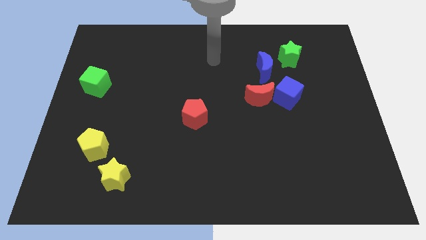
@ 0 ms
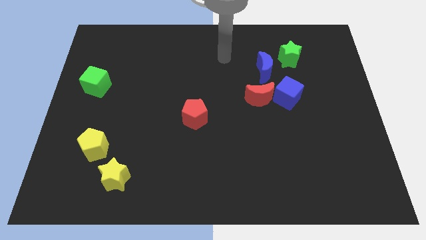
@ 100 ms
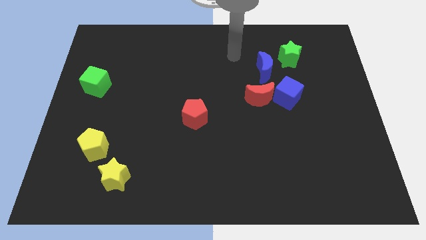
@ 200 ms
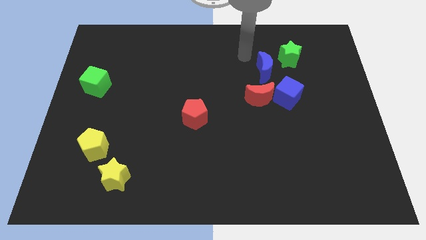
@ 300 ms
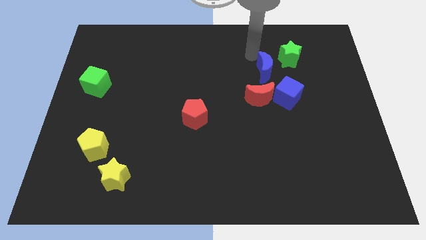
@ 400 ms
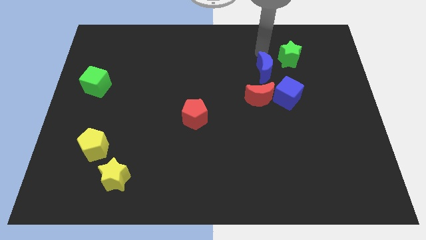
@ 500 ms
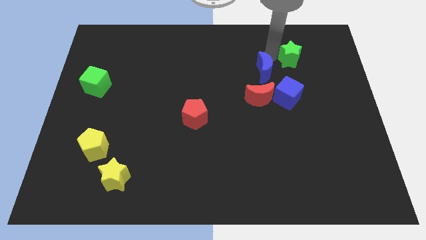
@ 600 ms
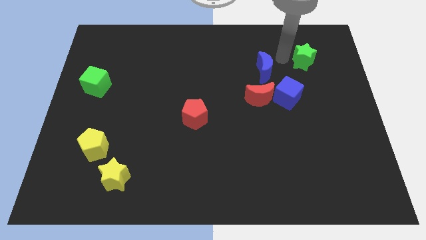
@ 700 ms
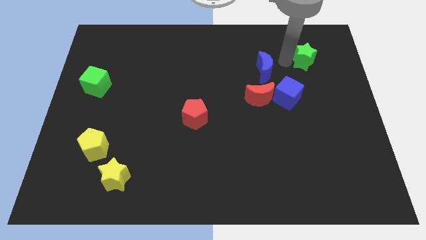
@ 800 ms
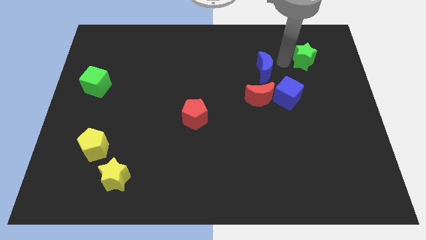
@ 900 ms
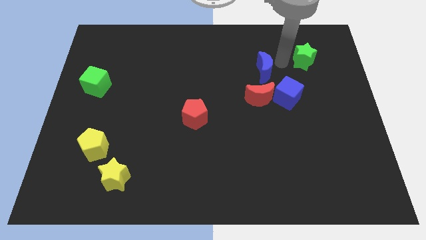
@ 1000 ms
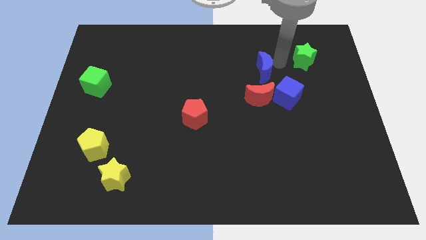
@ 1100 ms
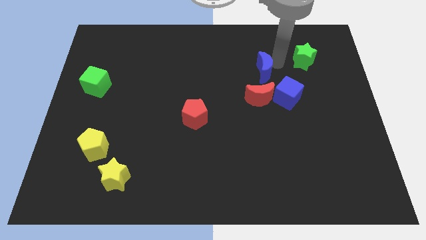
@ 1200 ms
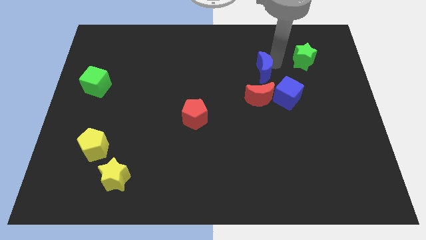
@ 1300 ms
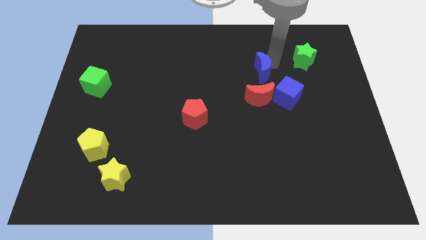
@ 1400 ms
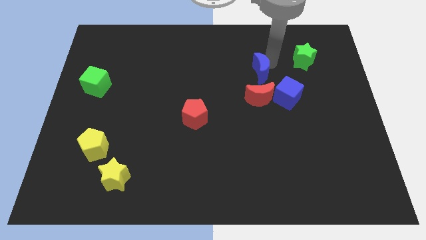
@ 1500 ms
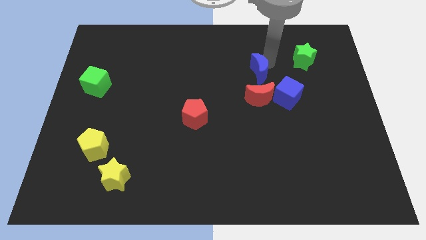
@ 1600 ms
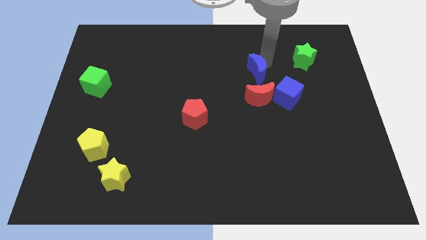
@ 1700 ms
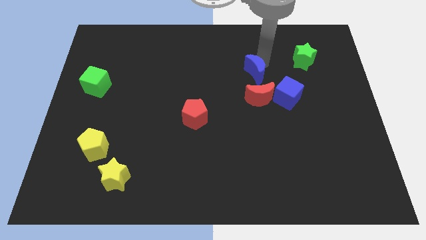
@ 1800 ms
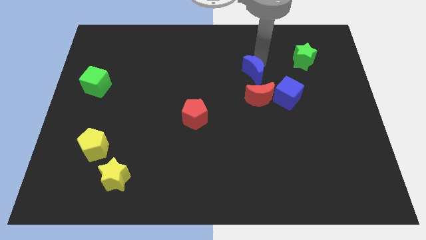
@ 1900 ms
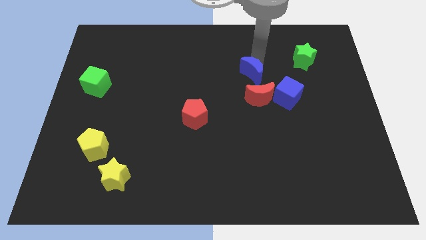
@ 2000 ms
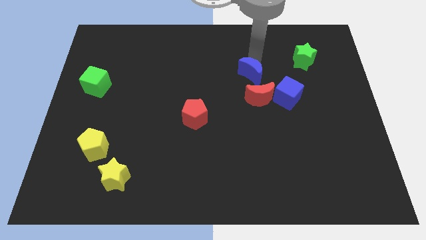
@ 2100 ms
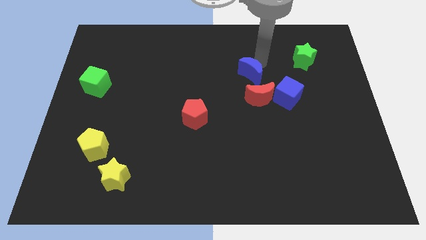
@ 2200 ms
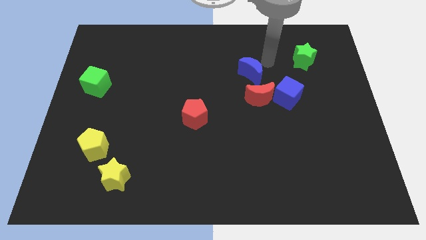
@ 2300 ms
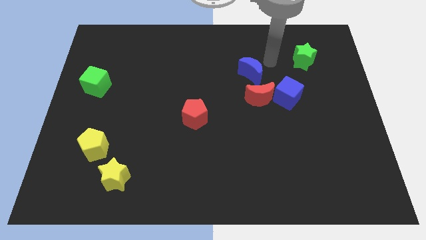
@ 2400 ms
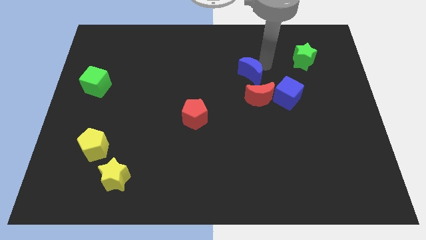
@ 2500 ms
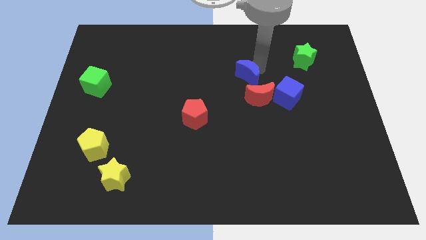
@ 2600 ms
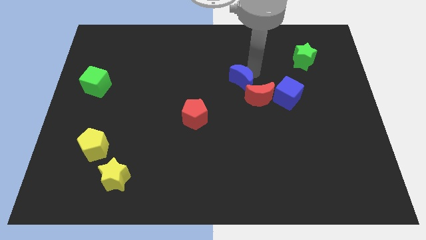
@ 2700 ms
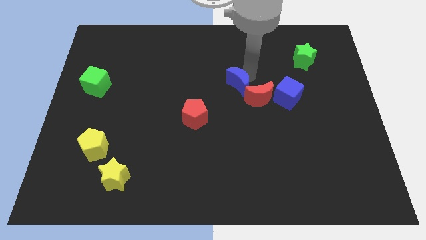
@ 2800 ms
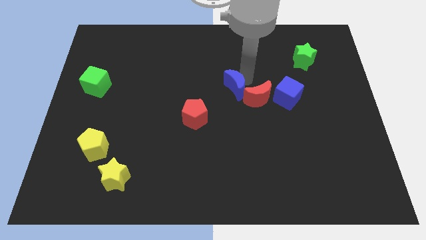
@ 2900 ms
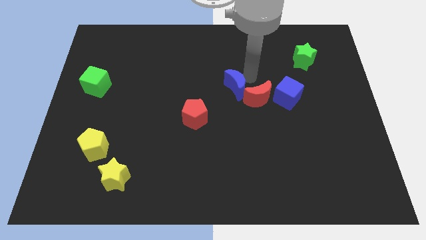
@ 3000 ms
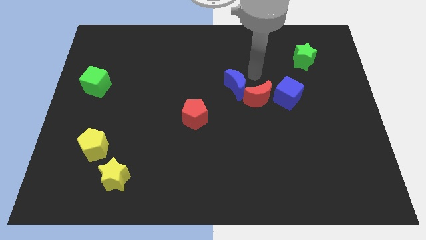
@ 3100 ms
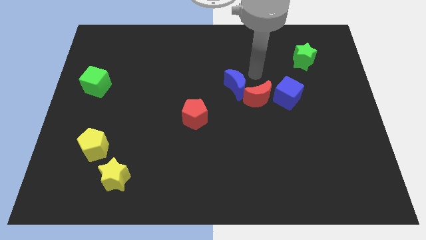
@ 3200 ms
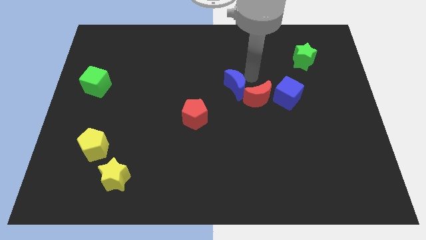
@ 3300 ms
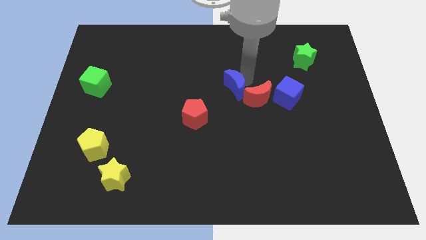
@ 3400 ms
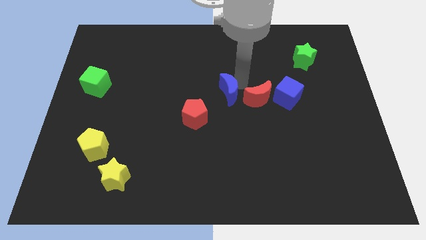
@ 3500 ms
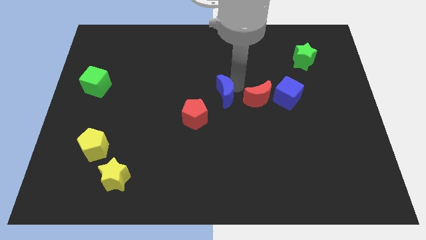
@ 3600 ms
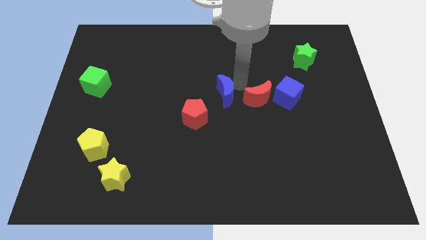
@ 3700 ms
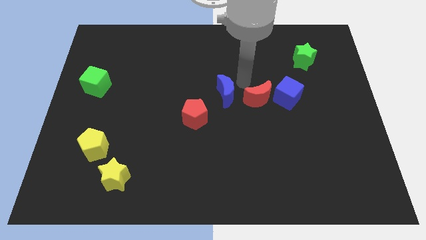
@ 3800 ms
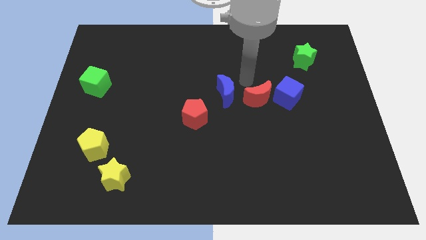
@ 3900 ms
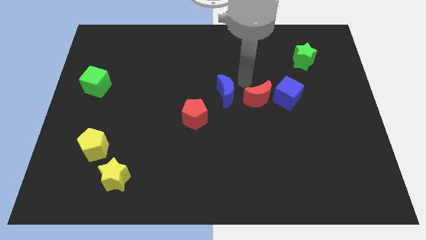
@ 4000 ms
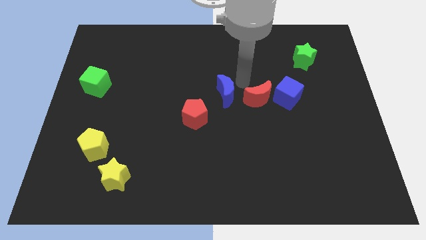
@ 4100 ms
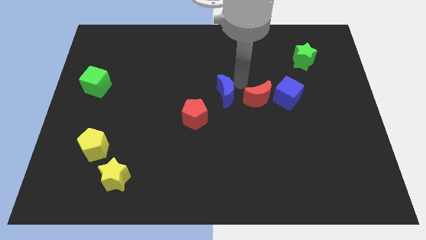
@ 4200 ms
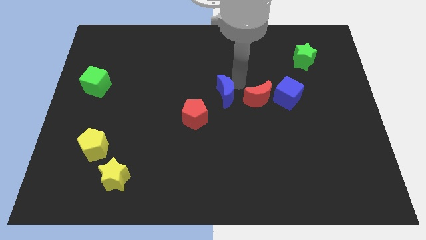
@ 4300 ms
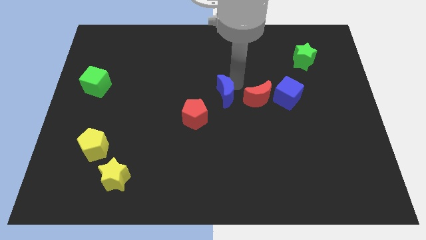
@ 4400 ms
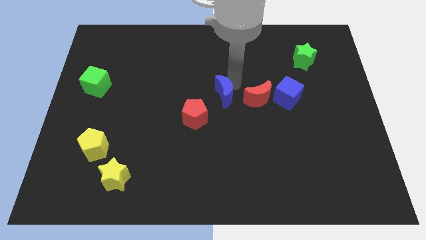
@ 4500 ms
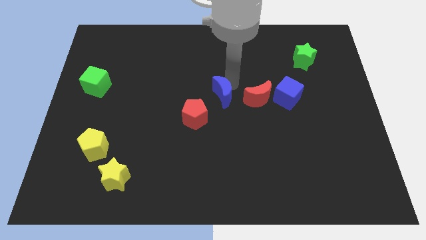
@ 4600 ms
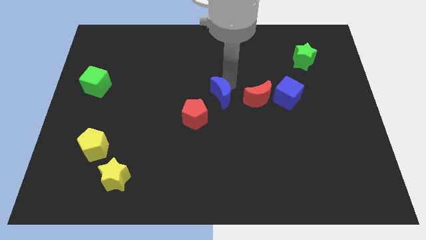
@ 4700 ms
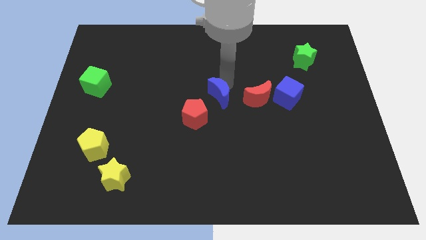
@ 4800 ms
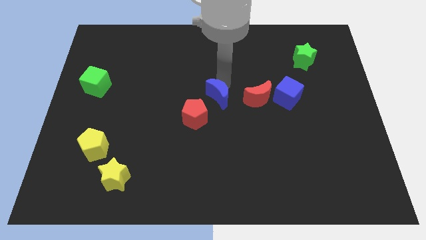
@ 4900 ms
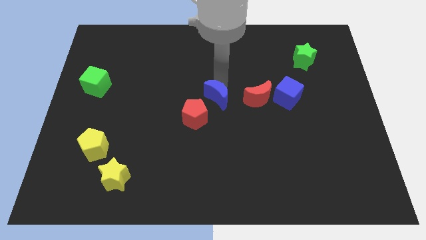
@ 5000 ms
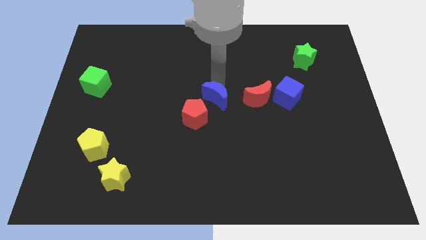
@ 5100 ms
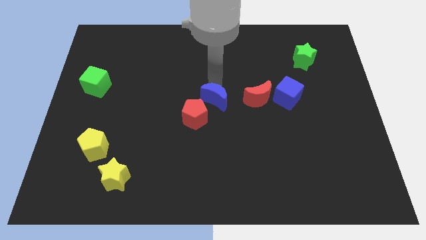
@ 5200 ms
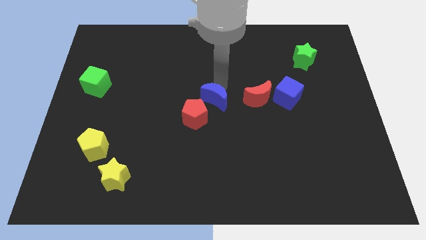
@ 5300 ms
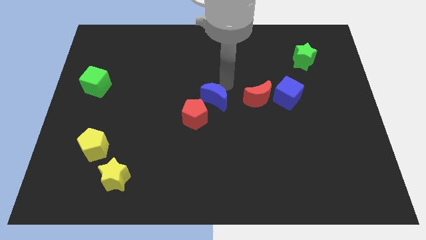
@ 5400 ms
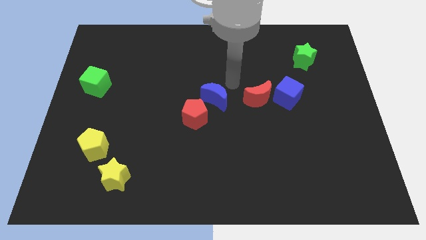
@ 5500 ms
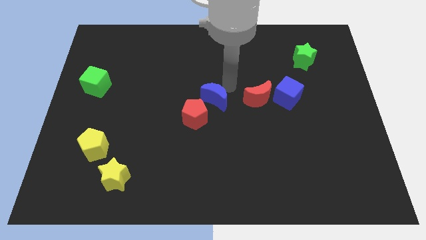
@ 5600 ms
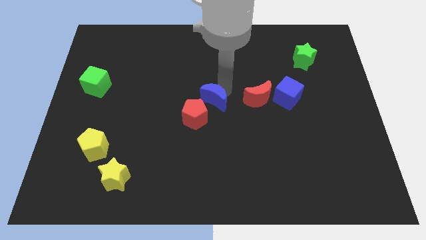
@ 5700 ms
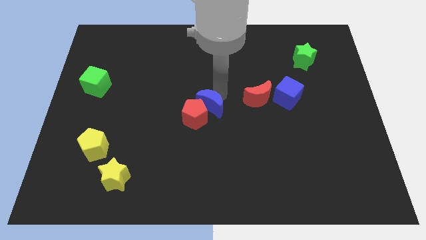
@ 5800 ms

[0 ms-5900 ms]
move the blue moon next to the red pentagon
